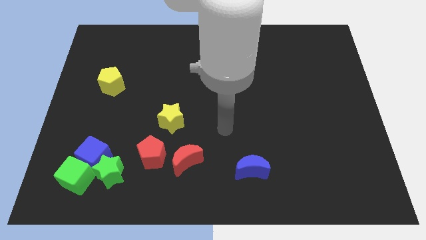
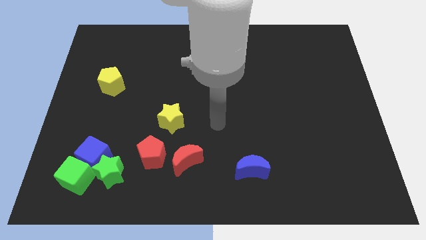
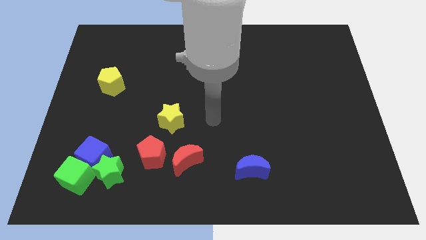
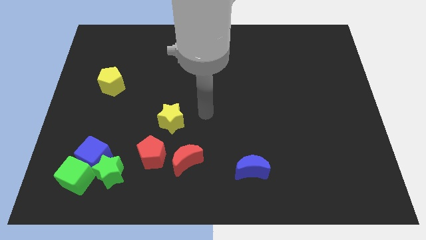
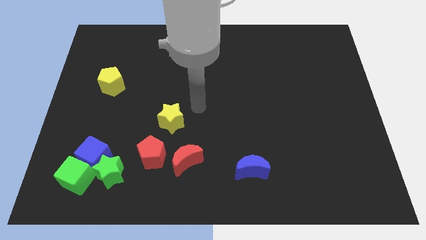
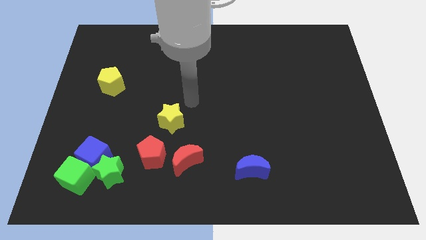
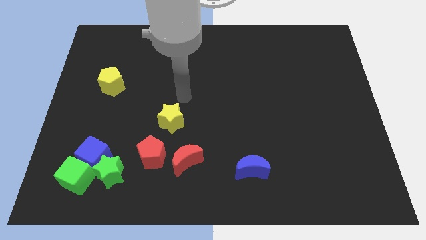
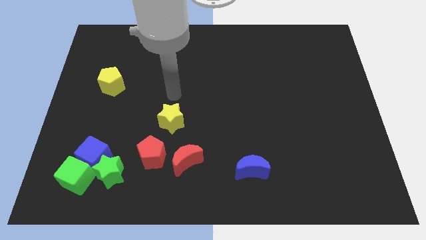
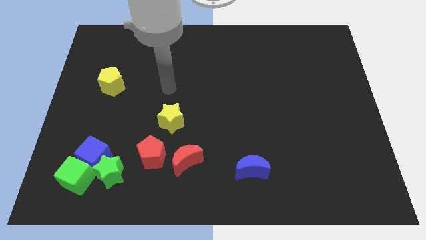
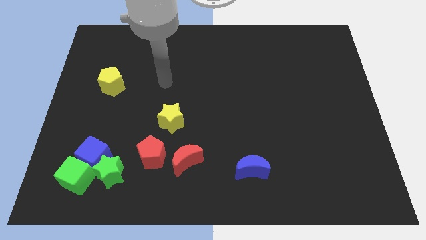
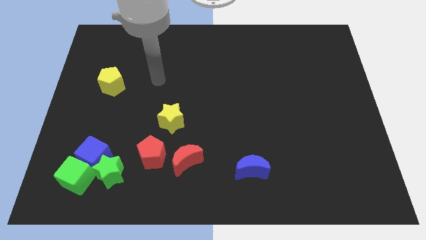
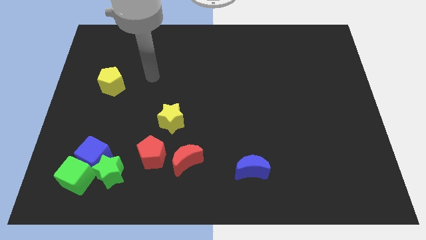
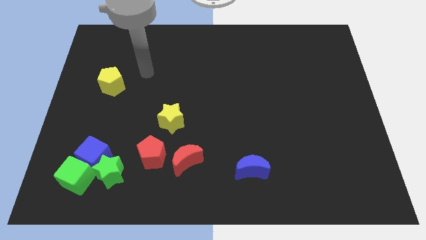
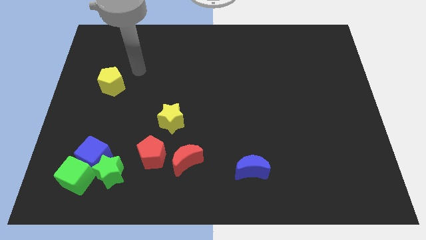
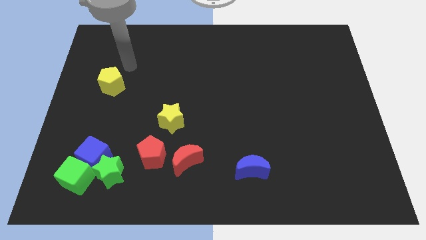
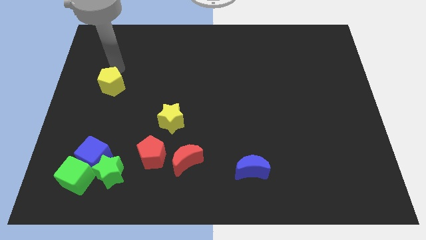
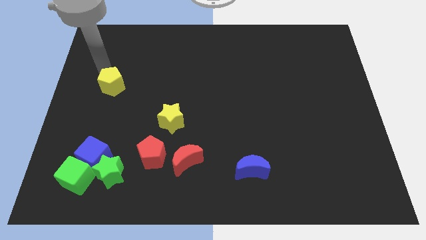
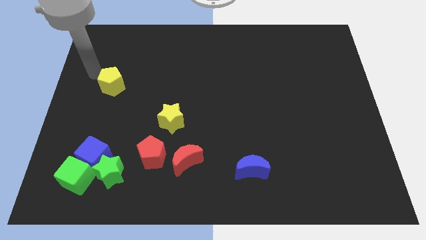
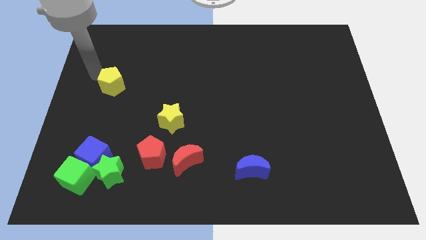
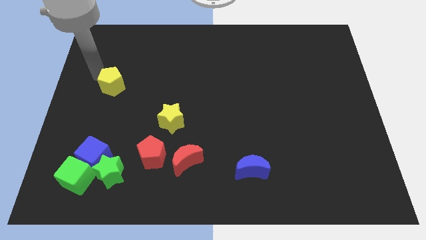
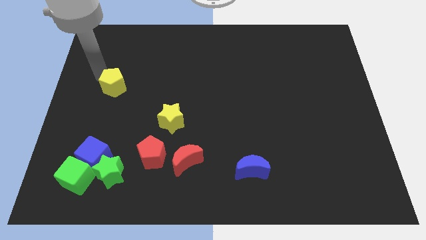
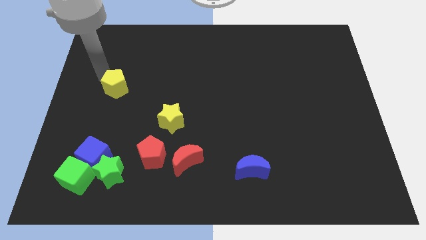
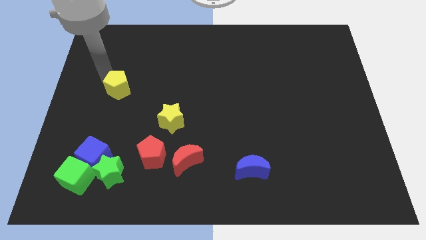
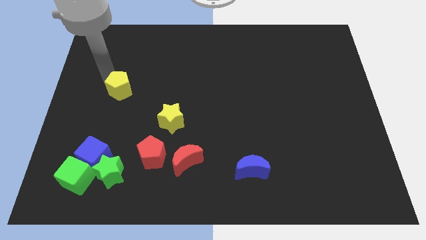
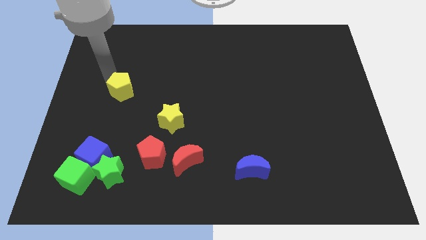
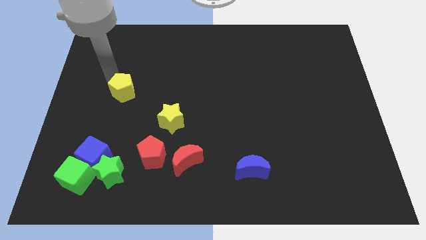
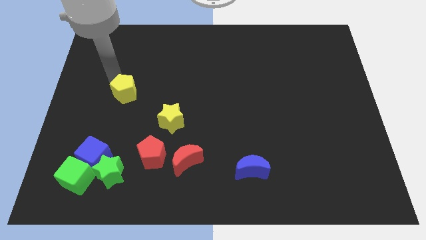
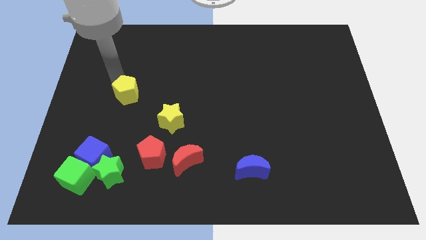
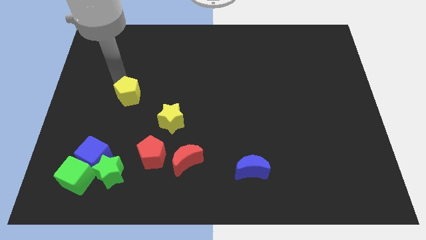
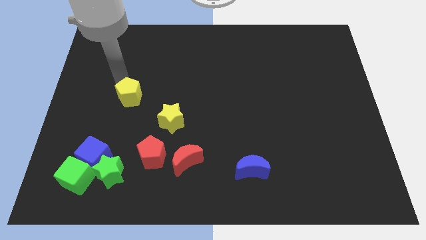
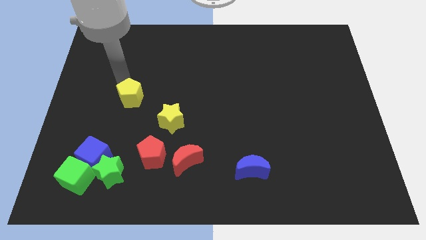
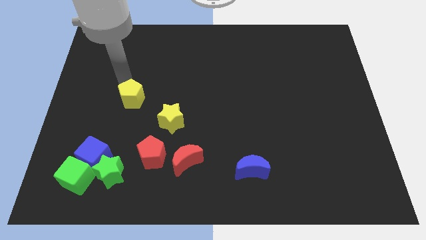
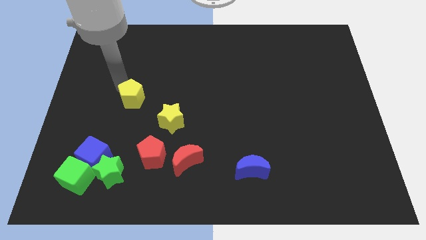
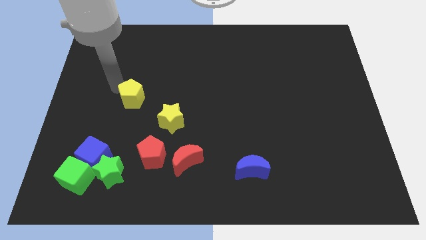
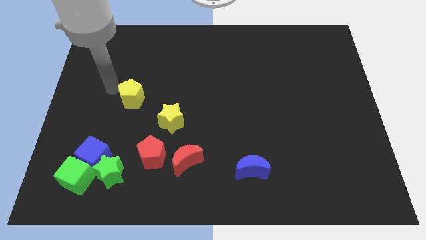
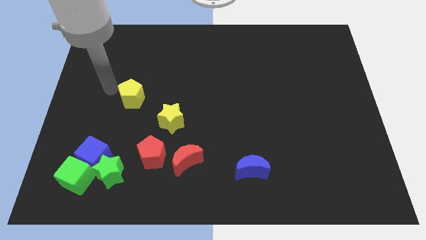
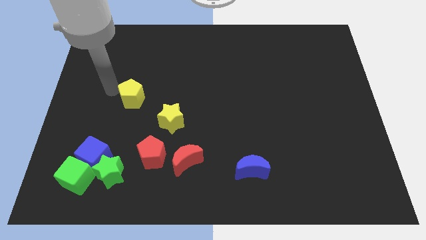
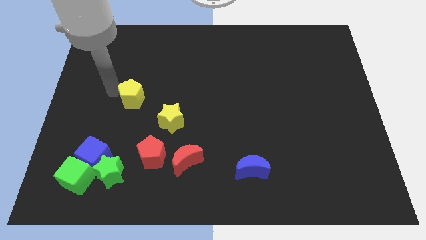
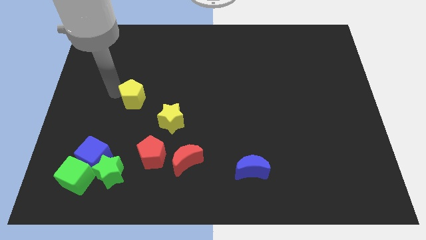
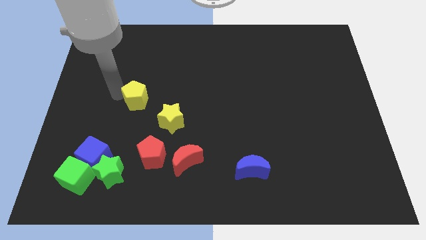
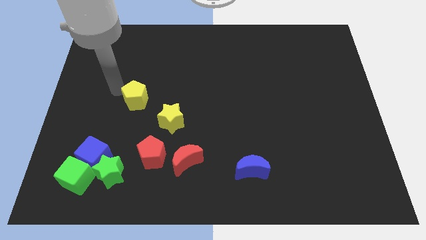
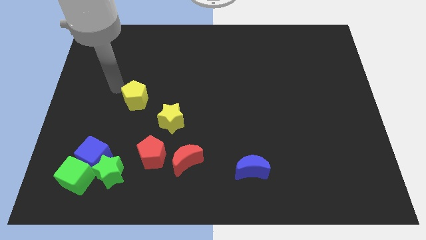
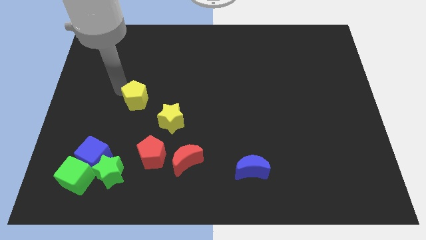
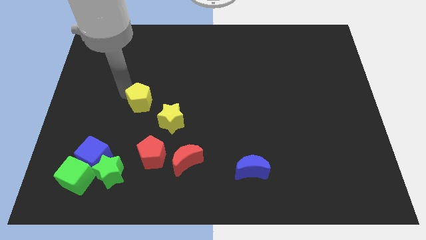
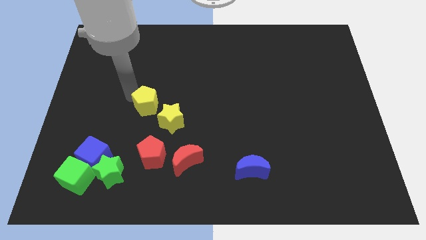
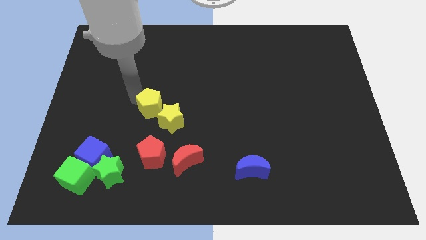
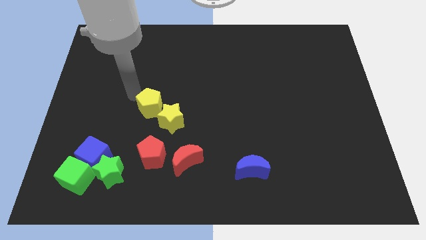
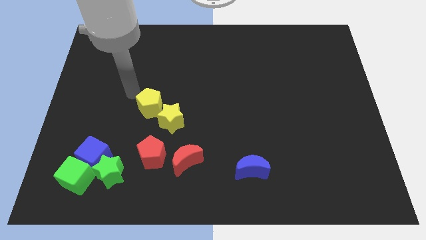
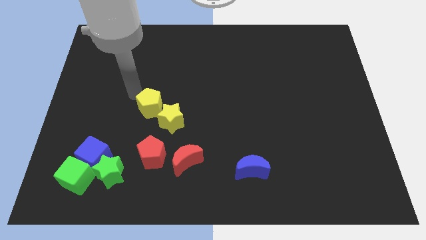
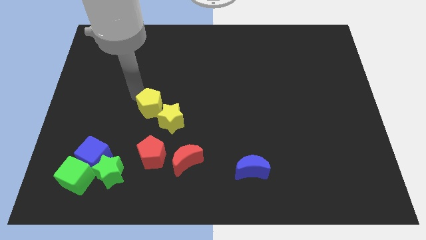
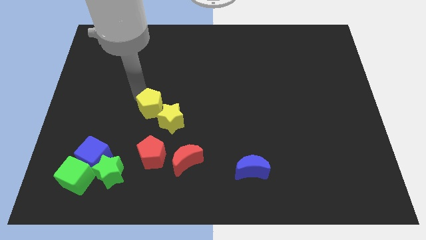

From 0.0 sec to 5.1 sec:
slide the yellow pentagon close to the yellow star

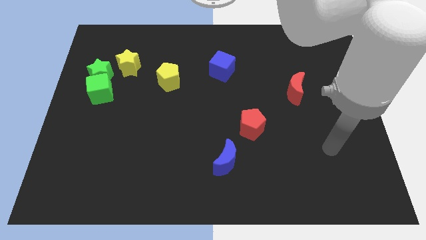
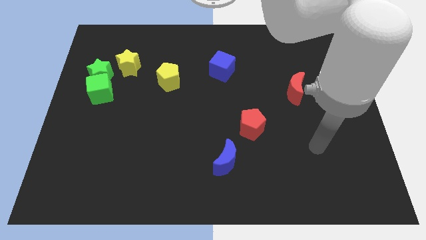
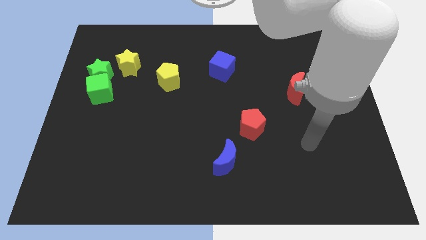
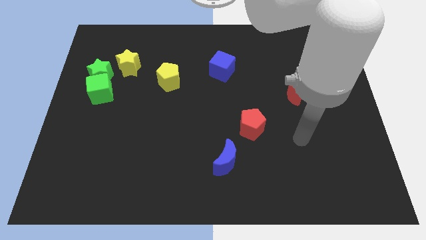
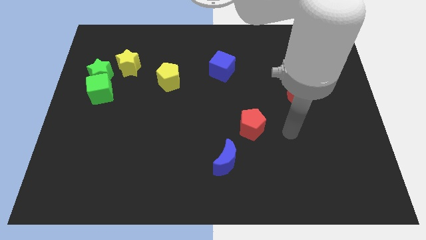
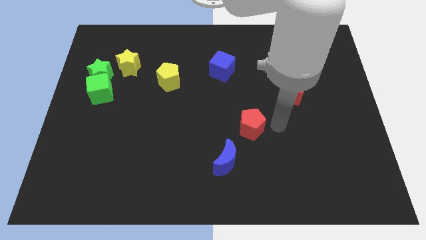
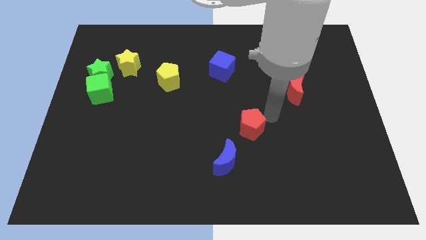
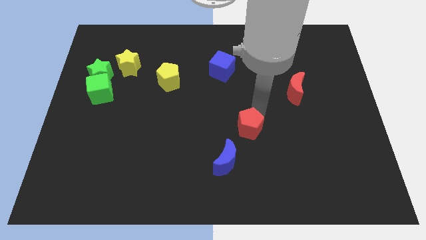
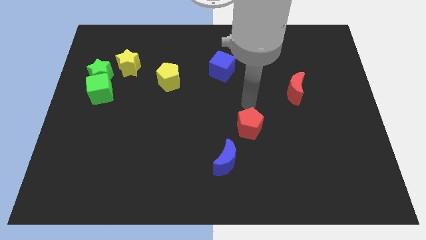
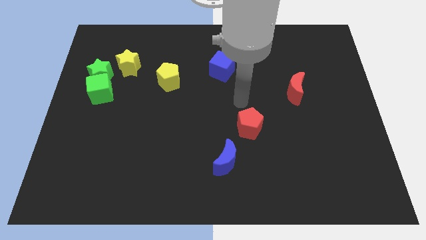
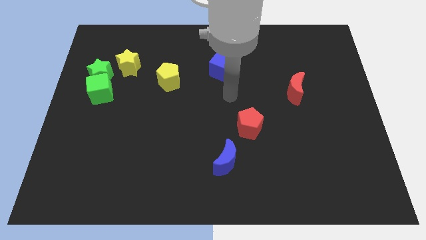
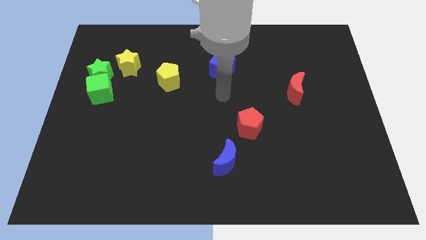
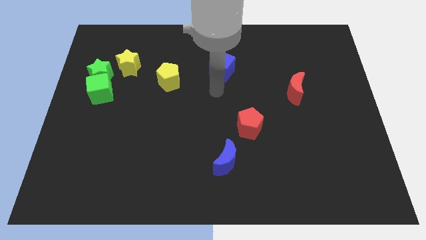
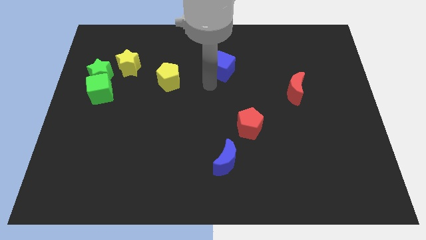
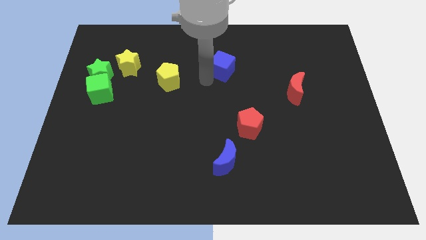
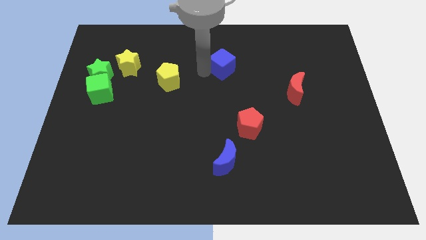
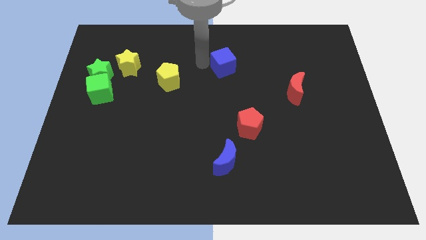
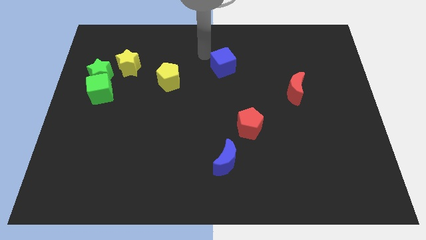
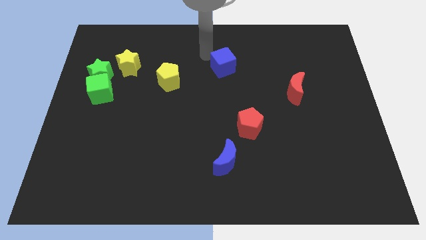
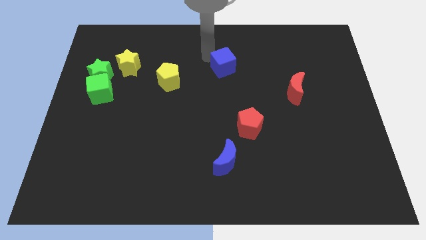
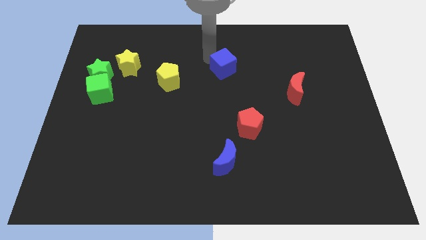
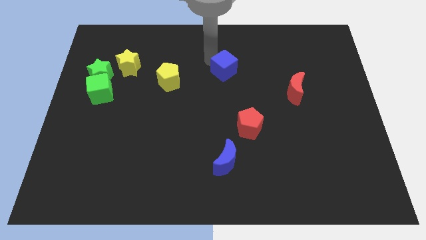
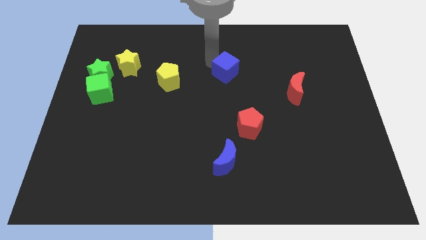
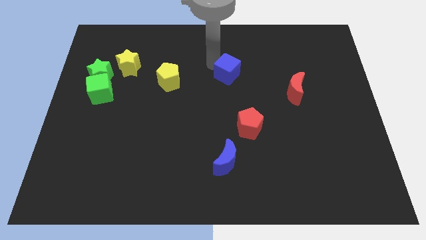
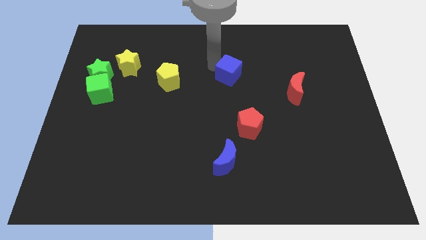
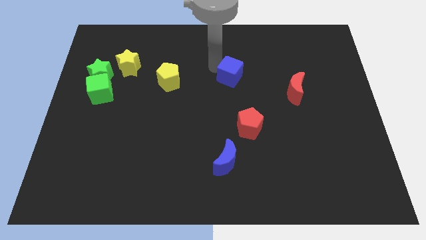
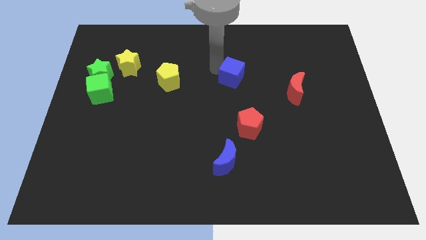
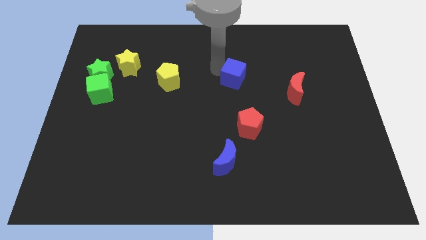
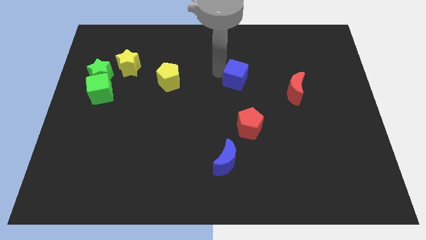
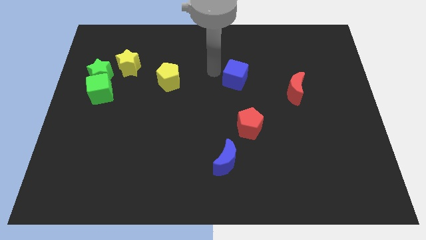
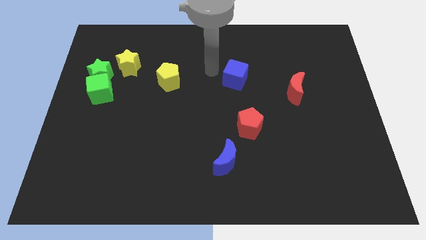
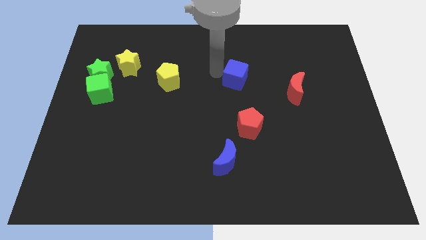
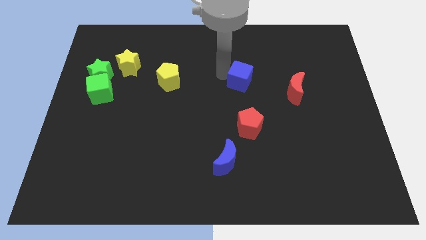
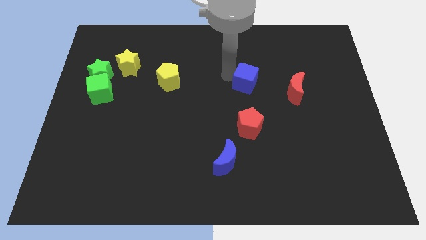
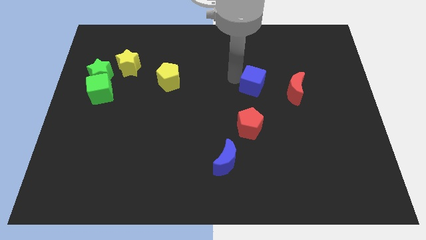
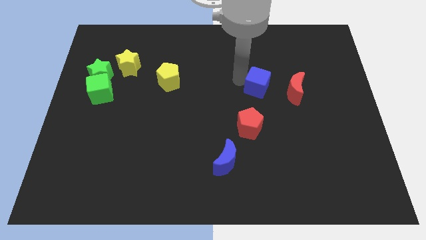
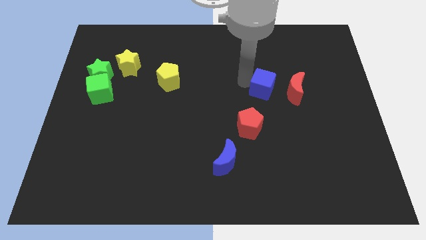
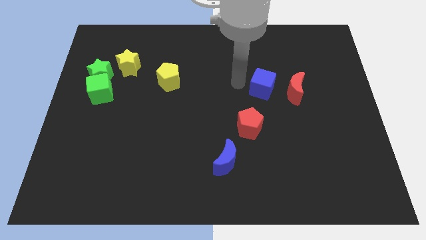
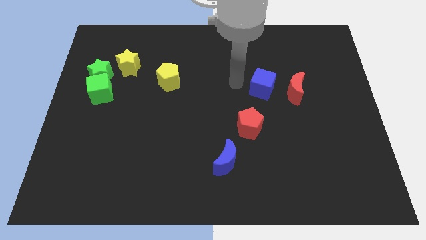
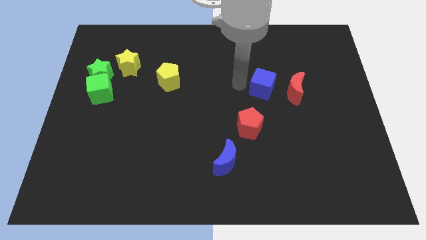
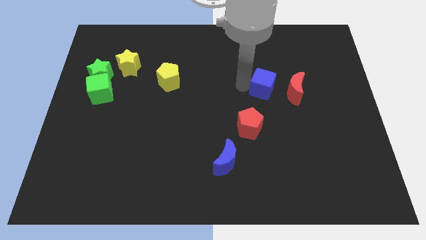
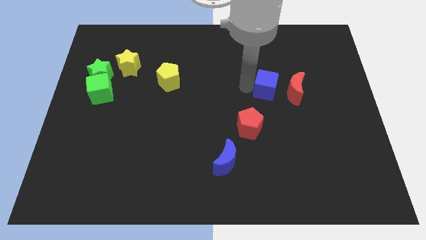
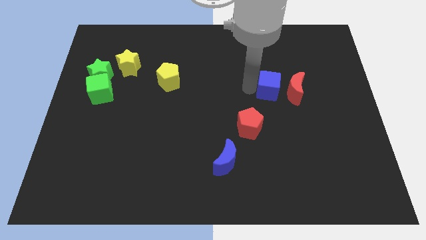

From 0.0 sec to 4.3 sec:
slide the blue cube towards the red moon
